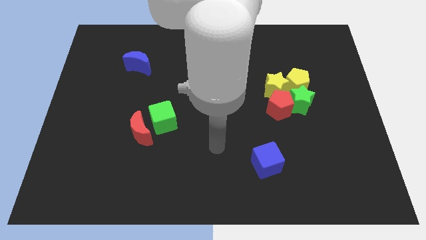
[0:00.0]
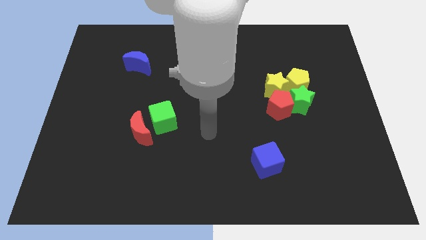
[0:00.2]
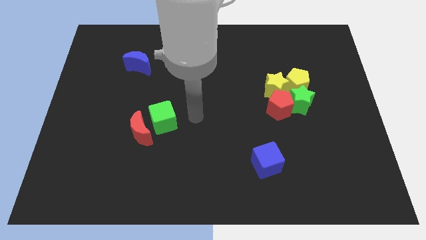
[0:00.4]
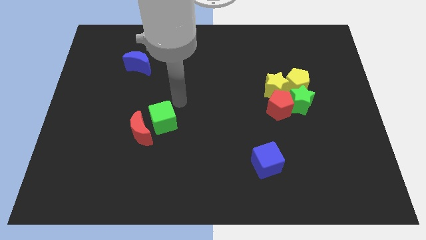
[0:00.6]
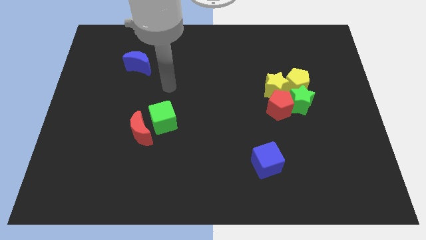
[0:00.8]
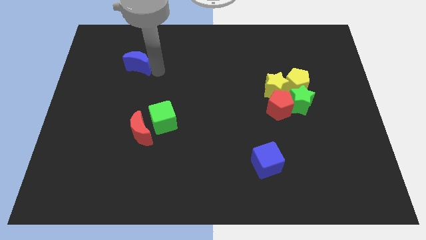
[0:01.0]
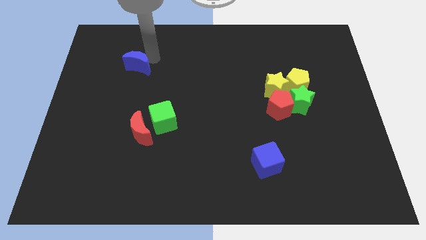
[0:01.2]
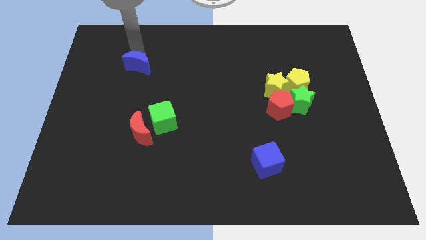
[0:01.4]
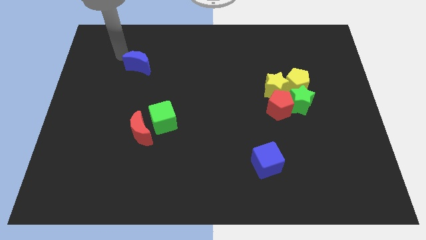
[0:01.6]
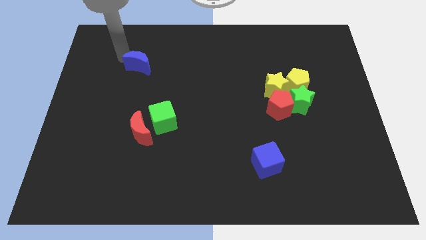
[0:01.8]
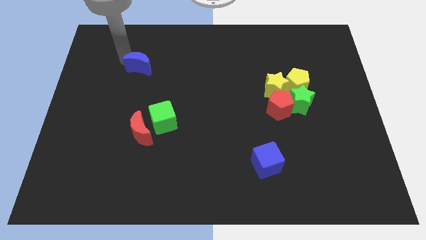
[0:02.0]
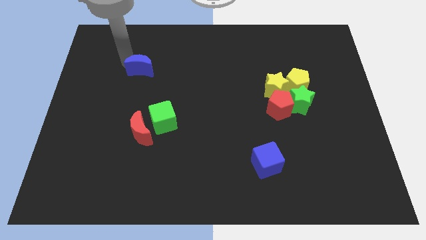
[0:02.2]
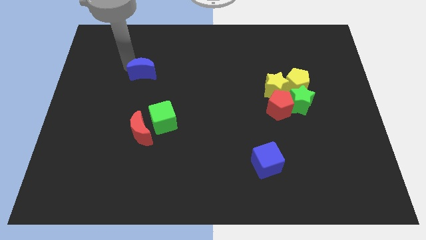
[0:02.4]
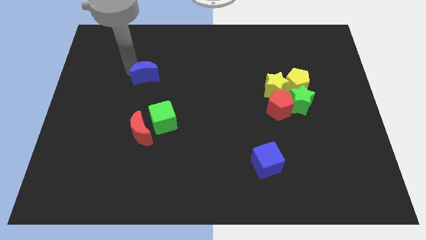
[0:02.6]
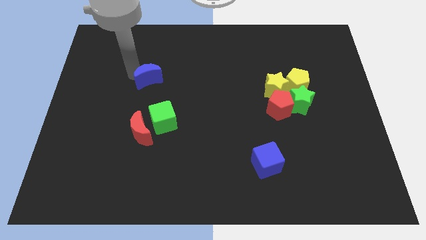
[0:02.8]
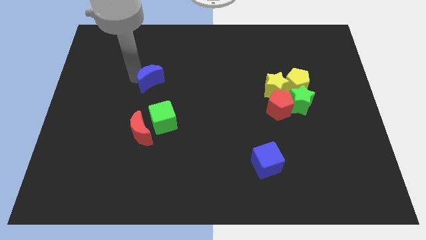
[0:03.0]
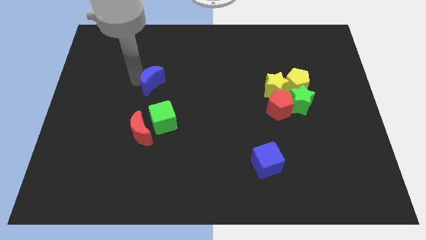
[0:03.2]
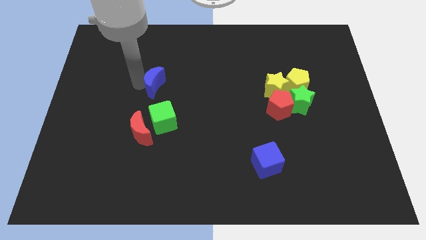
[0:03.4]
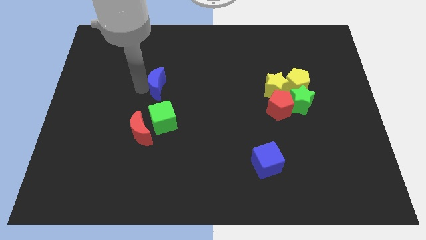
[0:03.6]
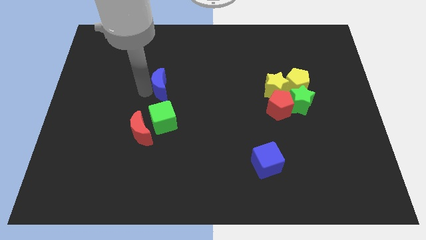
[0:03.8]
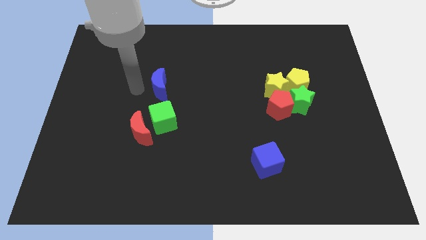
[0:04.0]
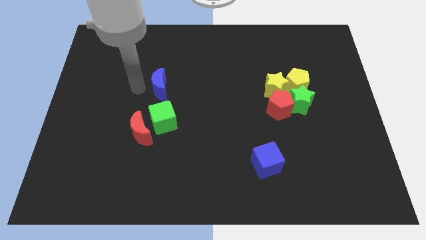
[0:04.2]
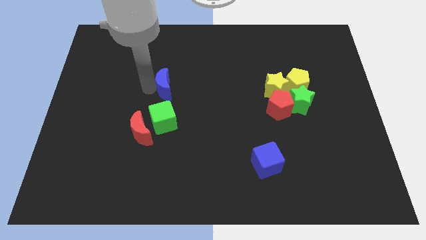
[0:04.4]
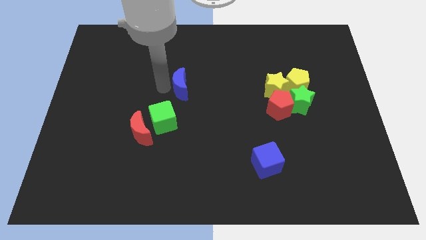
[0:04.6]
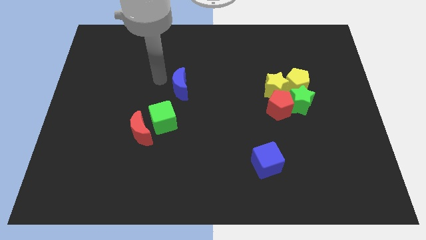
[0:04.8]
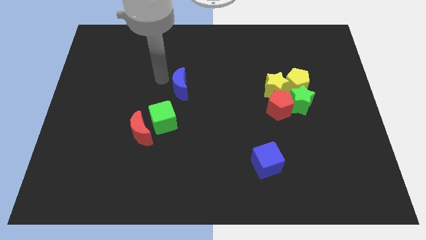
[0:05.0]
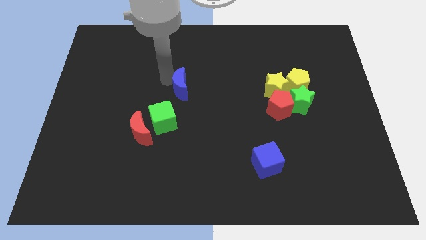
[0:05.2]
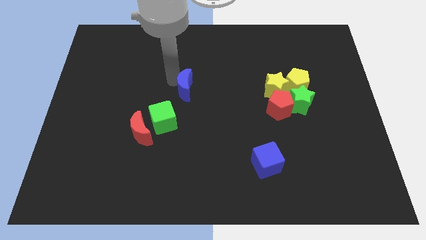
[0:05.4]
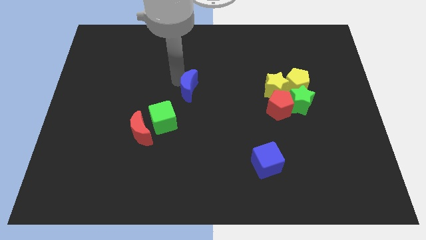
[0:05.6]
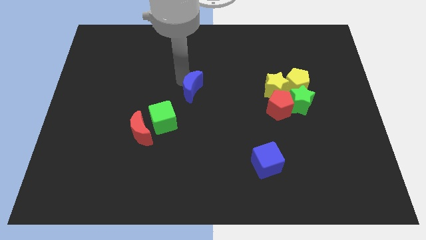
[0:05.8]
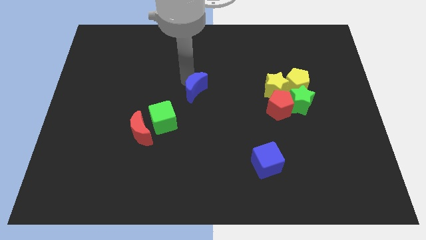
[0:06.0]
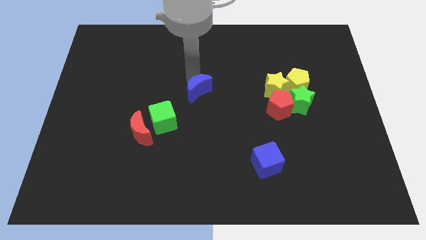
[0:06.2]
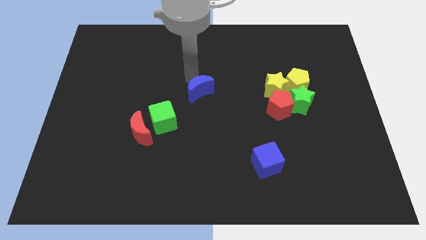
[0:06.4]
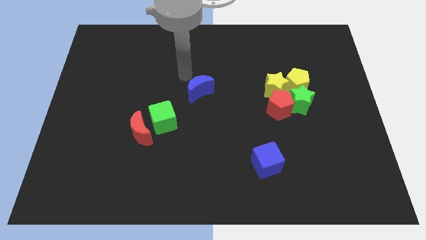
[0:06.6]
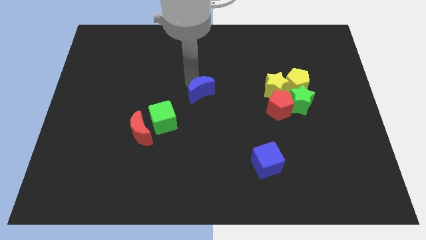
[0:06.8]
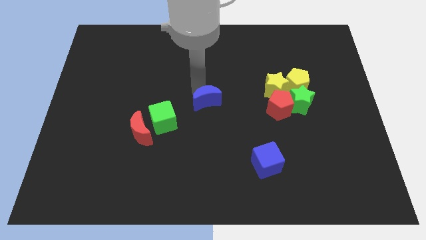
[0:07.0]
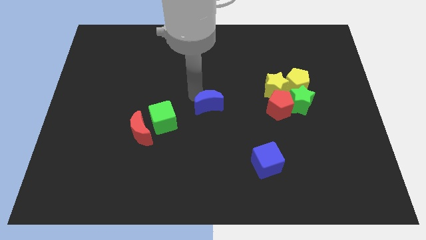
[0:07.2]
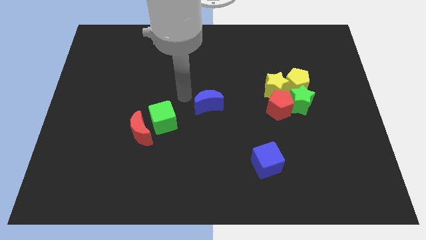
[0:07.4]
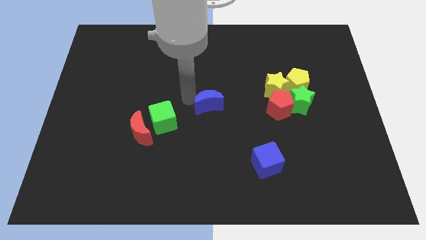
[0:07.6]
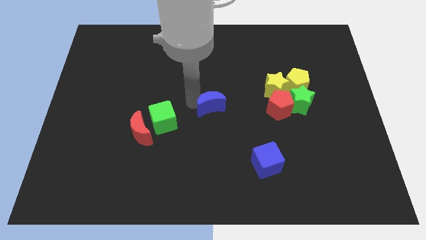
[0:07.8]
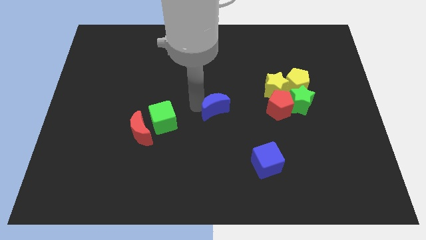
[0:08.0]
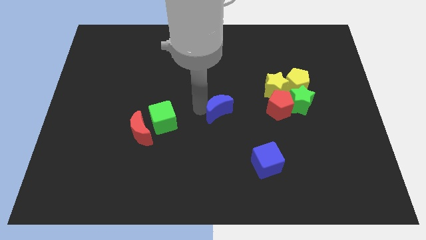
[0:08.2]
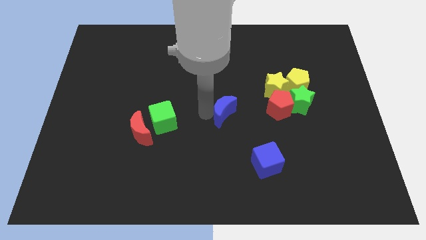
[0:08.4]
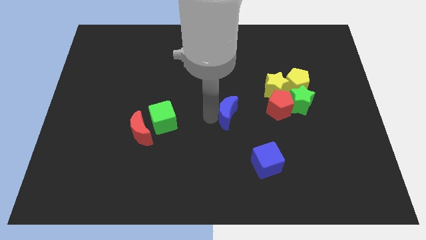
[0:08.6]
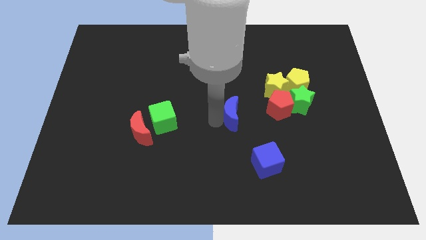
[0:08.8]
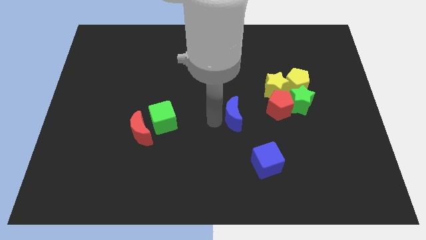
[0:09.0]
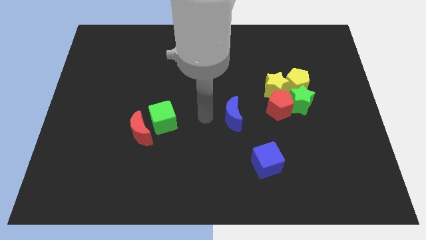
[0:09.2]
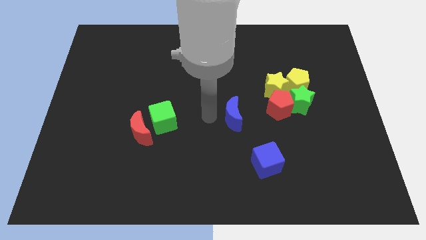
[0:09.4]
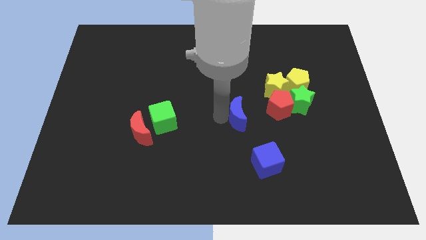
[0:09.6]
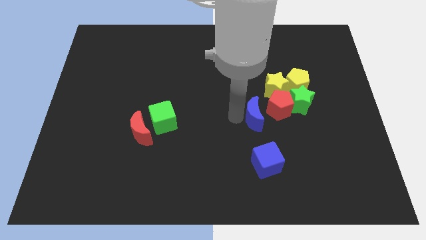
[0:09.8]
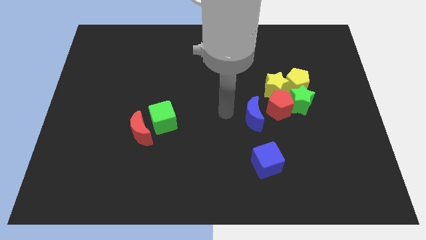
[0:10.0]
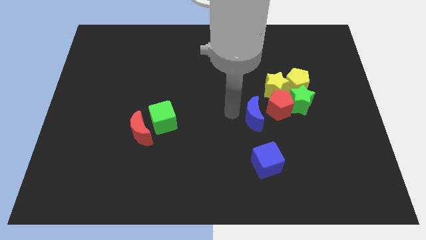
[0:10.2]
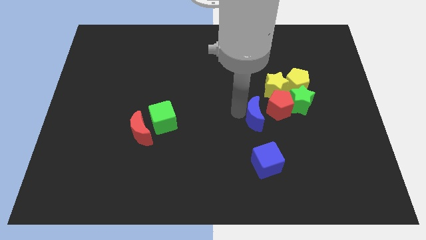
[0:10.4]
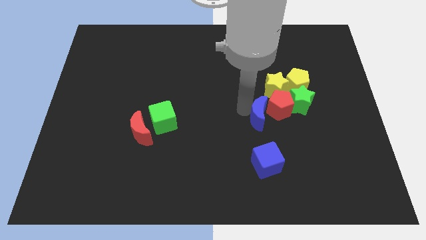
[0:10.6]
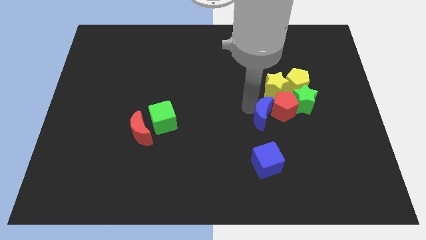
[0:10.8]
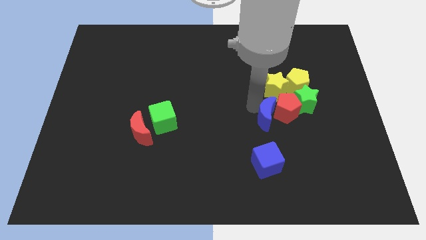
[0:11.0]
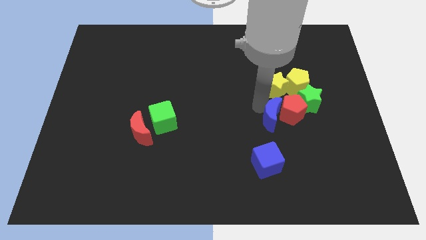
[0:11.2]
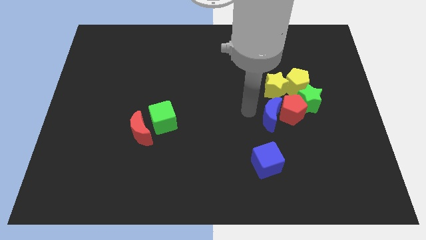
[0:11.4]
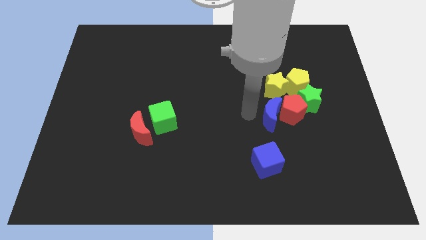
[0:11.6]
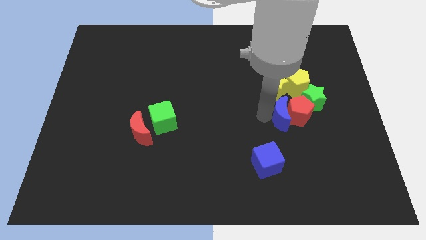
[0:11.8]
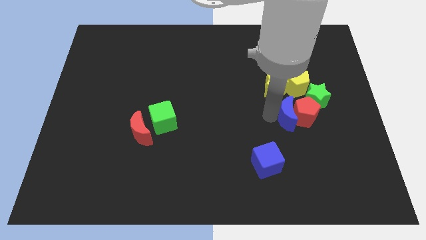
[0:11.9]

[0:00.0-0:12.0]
push the blue moon diagonally down and to the right of the yellow star

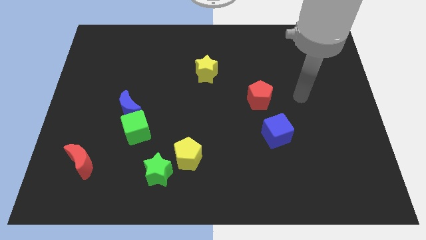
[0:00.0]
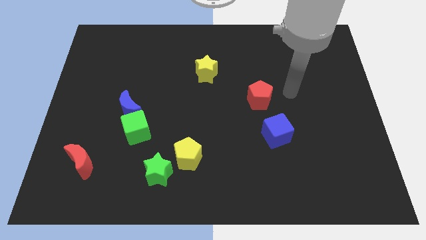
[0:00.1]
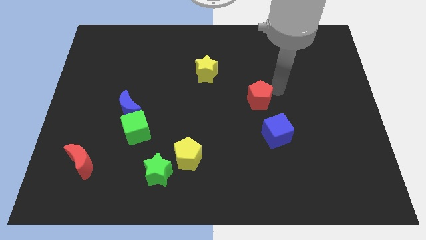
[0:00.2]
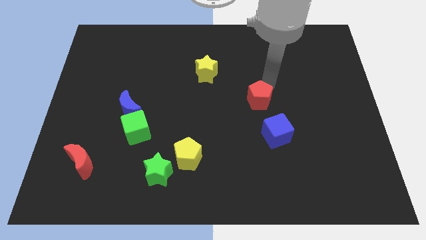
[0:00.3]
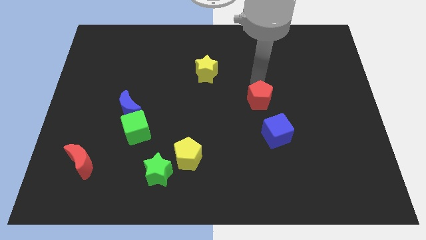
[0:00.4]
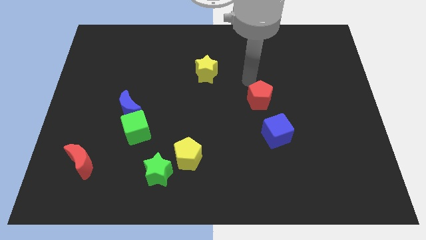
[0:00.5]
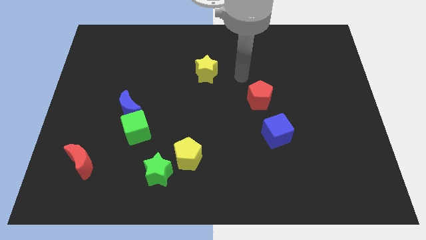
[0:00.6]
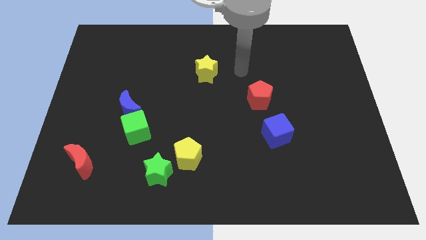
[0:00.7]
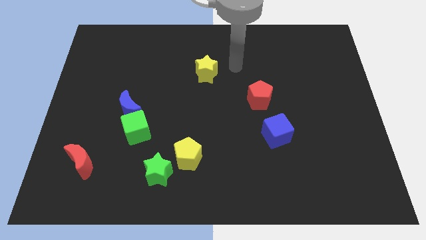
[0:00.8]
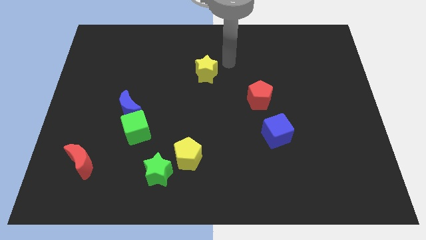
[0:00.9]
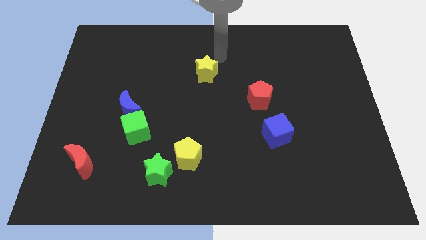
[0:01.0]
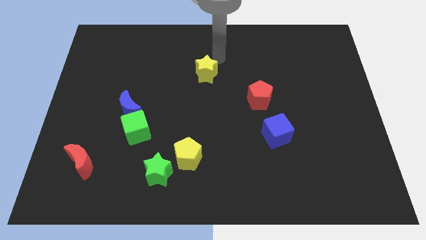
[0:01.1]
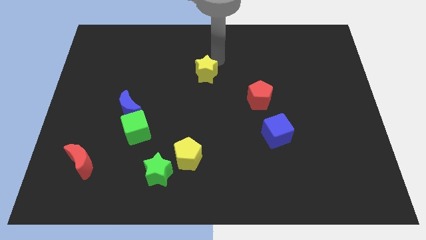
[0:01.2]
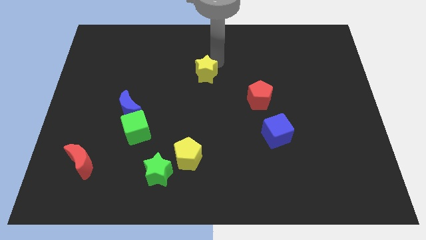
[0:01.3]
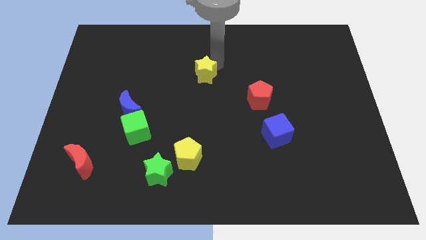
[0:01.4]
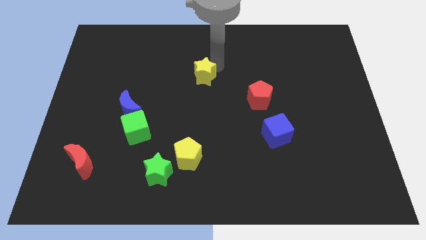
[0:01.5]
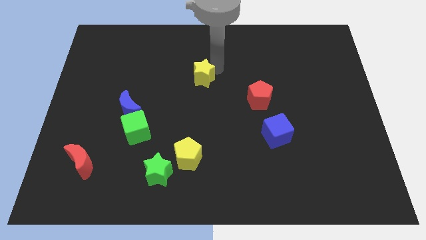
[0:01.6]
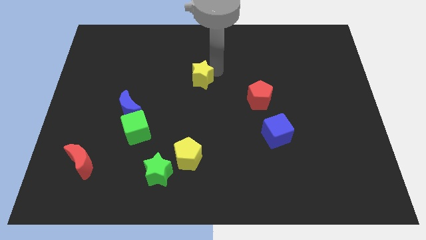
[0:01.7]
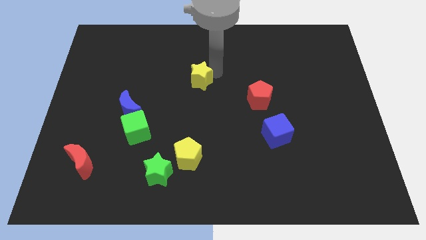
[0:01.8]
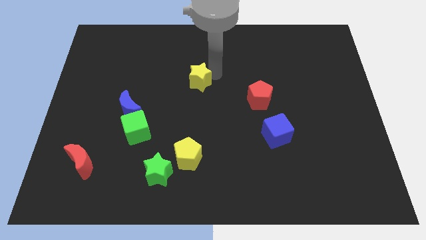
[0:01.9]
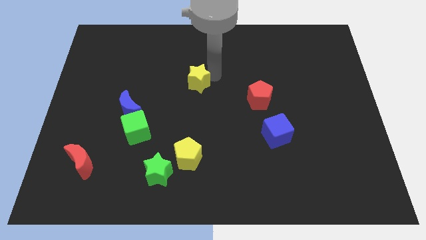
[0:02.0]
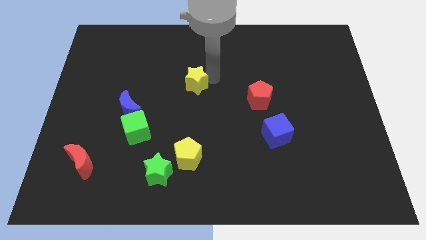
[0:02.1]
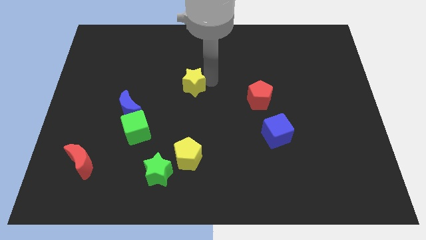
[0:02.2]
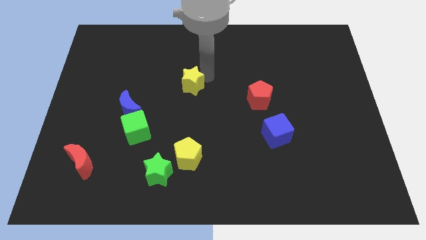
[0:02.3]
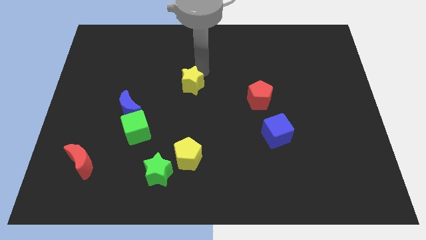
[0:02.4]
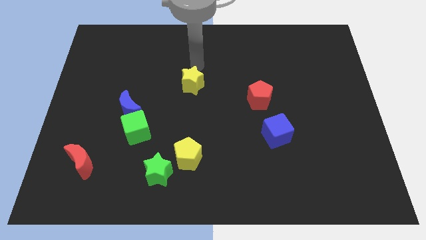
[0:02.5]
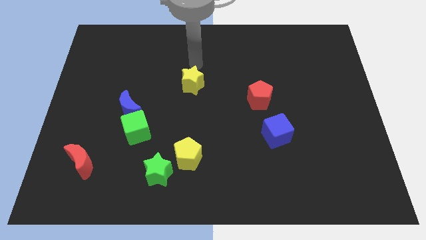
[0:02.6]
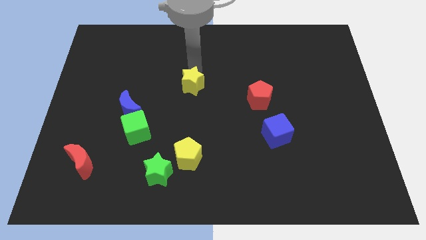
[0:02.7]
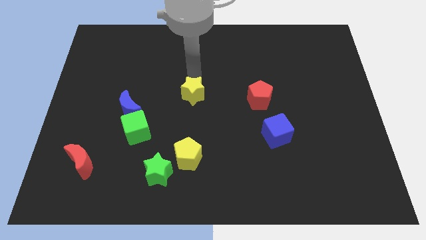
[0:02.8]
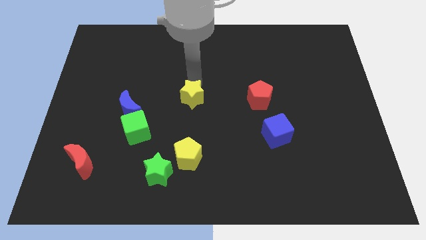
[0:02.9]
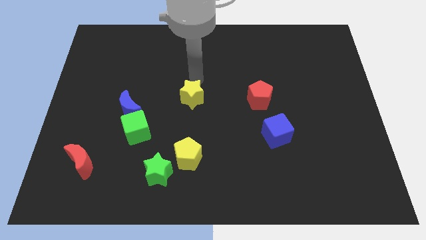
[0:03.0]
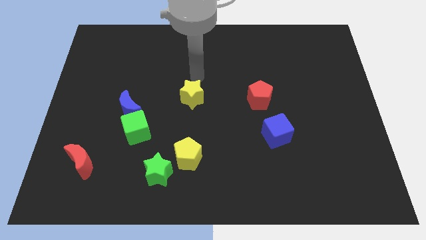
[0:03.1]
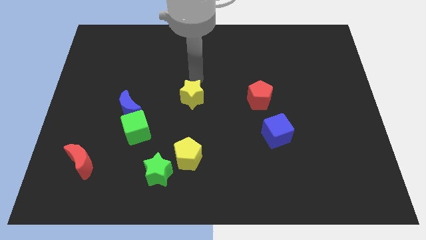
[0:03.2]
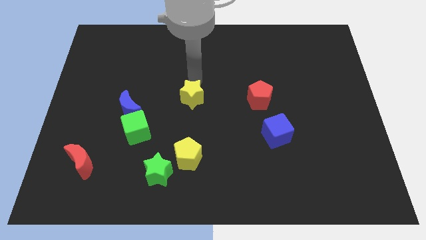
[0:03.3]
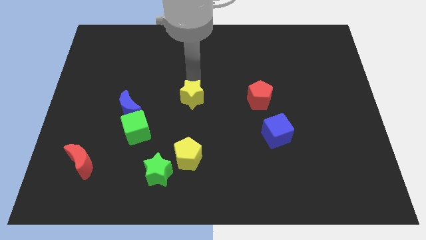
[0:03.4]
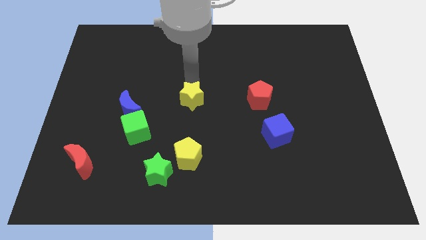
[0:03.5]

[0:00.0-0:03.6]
slide the yellow star to the top side of the yellow pentagon
